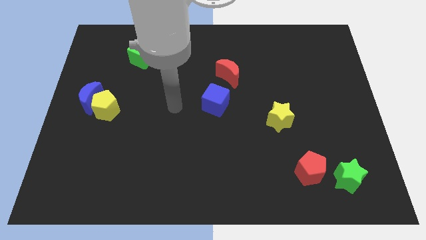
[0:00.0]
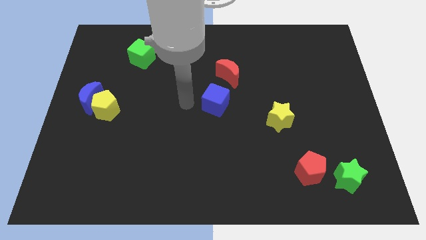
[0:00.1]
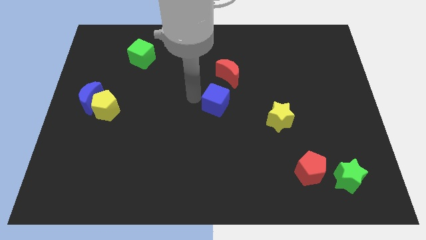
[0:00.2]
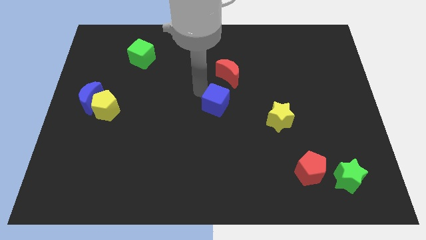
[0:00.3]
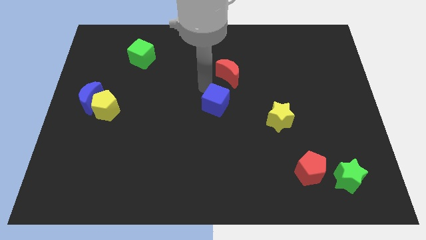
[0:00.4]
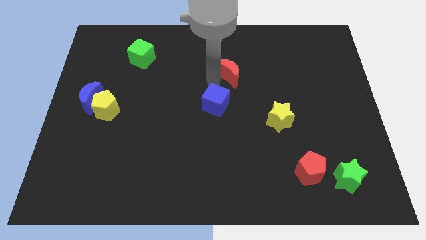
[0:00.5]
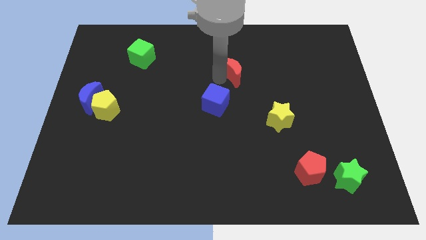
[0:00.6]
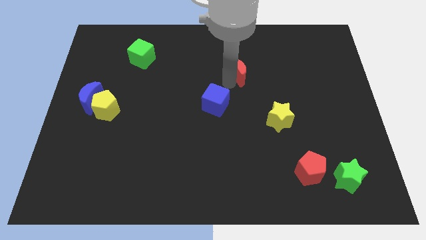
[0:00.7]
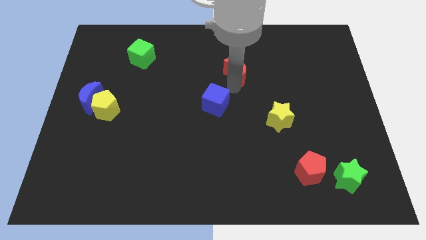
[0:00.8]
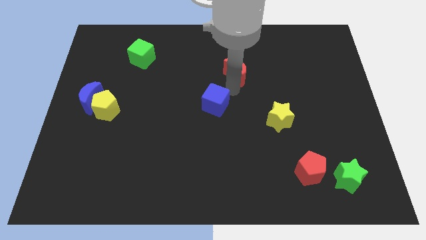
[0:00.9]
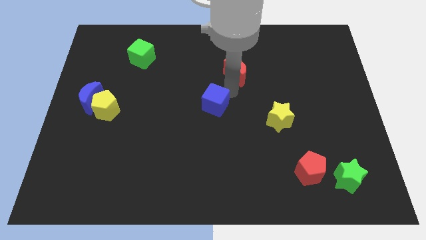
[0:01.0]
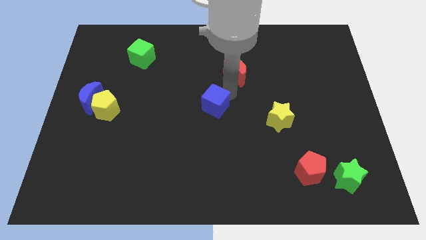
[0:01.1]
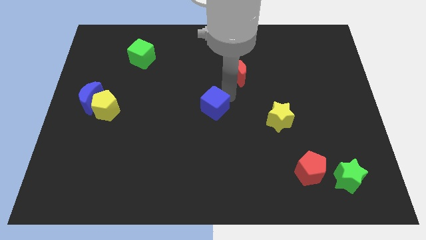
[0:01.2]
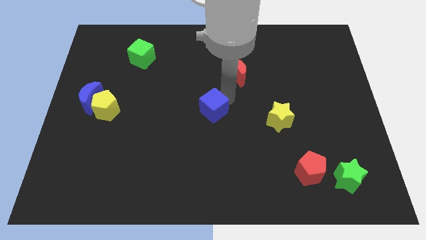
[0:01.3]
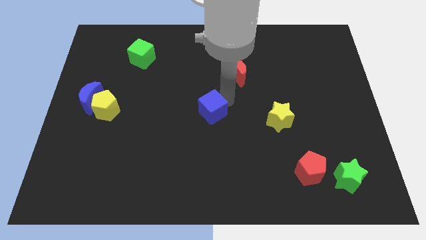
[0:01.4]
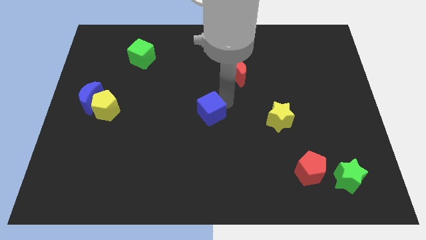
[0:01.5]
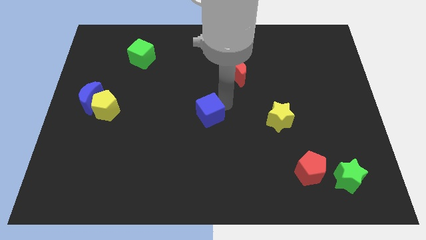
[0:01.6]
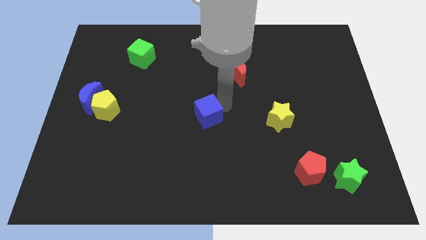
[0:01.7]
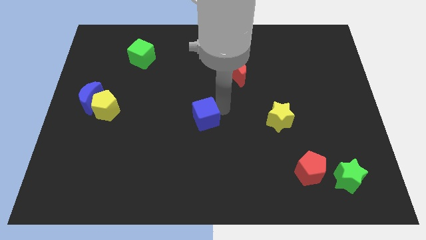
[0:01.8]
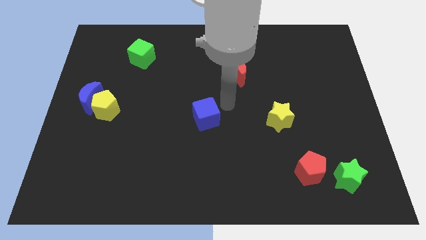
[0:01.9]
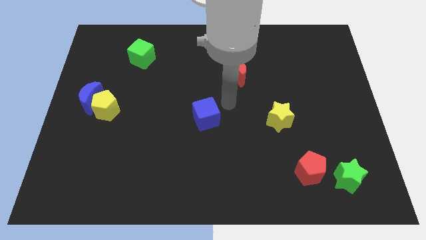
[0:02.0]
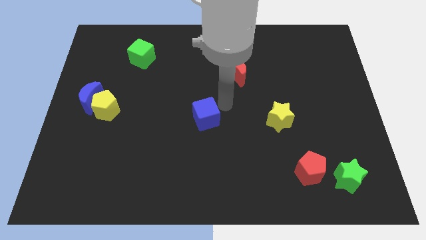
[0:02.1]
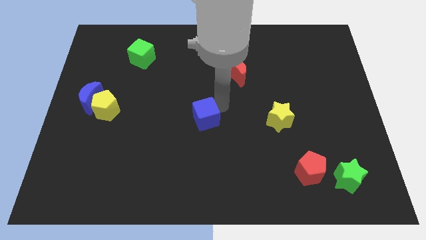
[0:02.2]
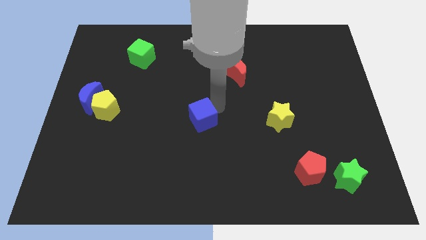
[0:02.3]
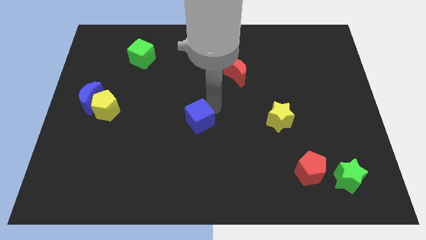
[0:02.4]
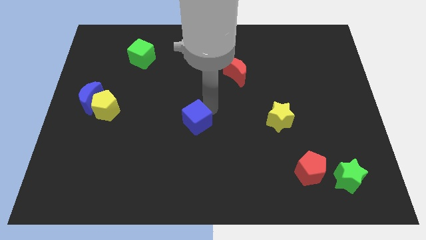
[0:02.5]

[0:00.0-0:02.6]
slide the blue cube a little down and left

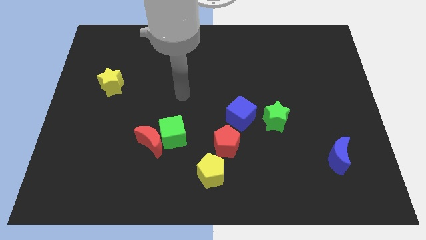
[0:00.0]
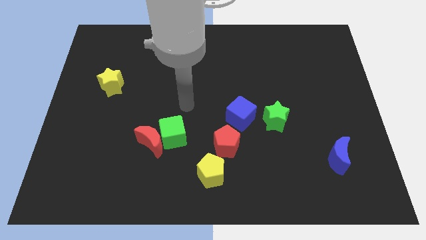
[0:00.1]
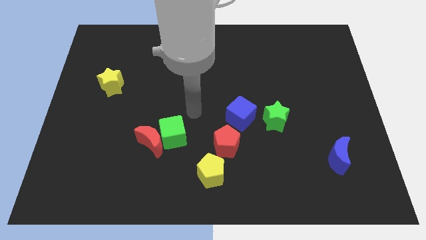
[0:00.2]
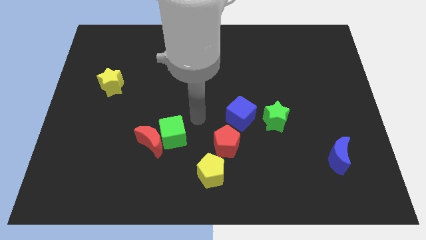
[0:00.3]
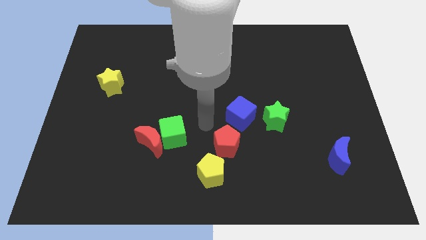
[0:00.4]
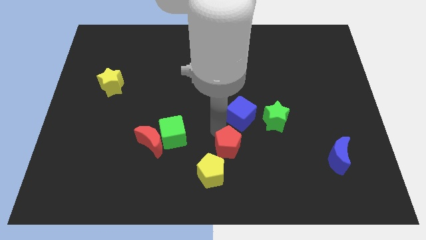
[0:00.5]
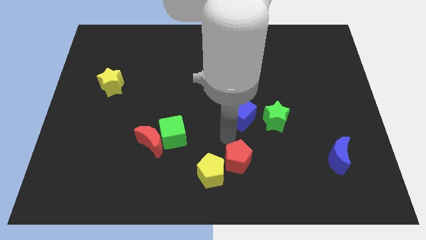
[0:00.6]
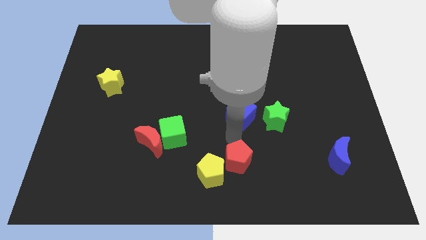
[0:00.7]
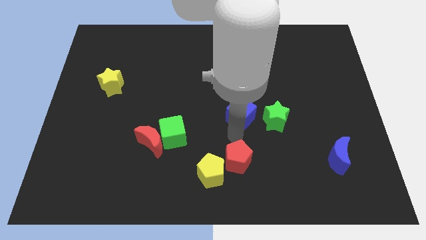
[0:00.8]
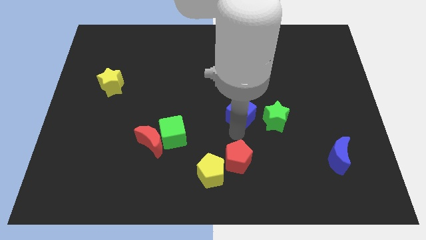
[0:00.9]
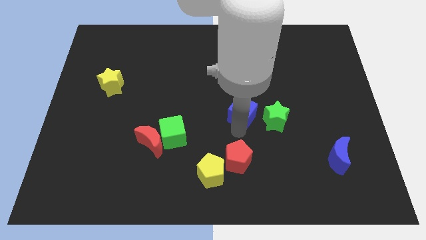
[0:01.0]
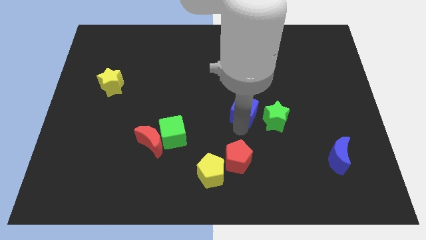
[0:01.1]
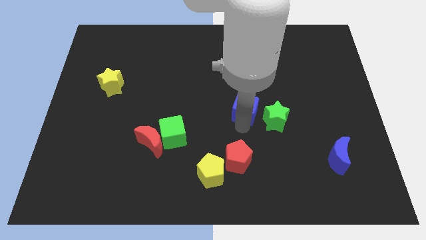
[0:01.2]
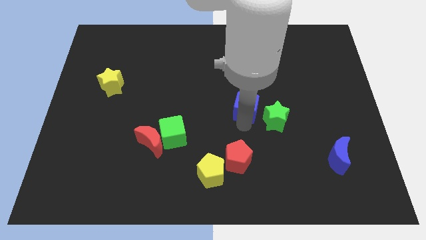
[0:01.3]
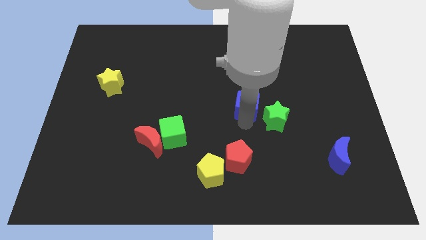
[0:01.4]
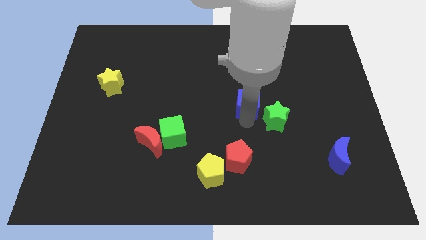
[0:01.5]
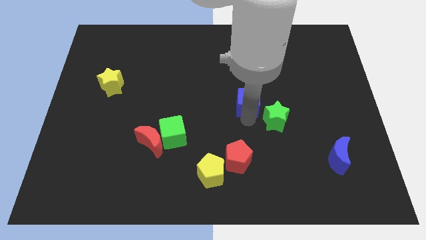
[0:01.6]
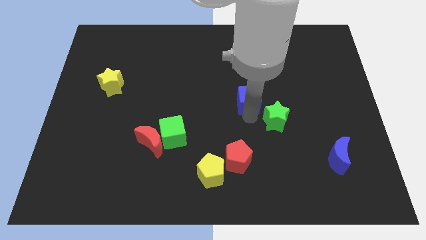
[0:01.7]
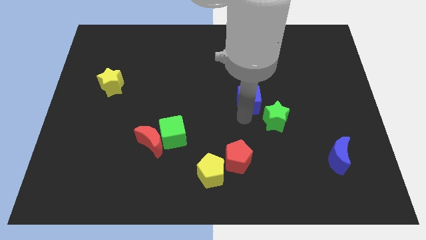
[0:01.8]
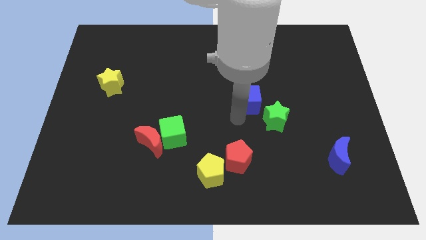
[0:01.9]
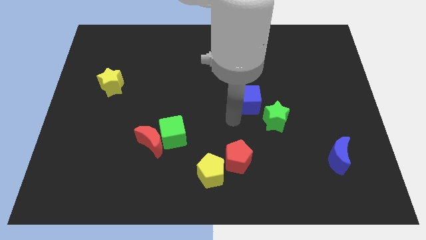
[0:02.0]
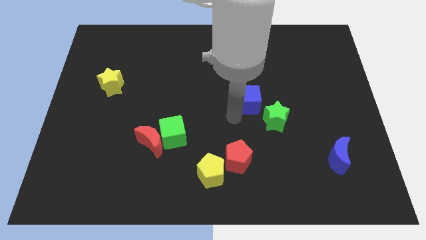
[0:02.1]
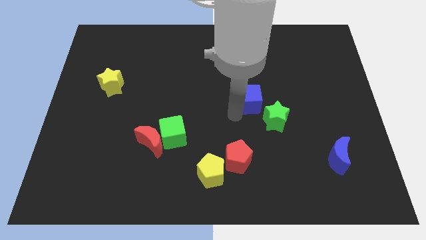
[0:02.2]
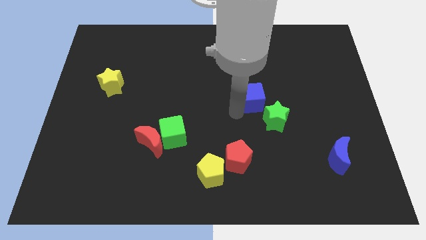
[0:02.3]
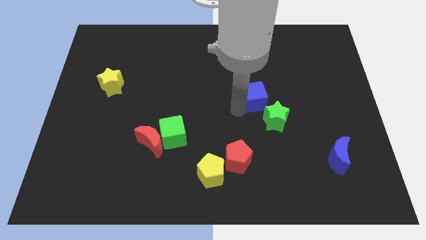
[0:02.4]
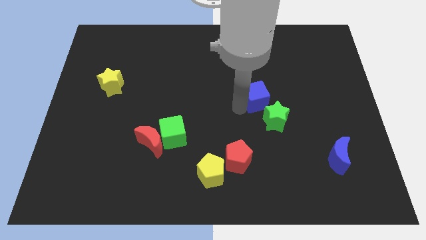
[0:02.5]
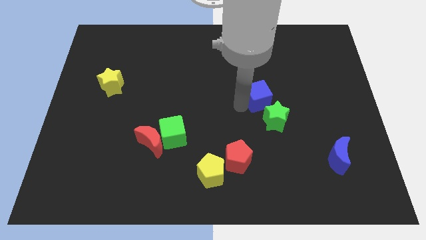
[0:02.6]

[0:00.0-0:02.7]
slide the blue cube diagonally up and right slightly

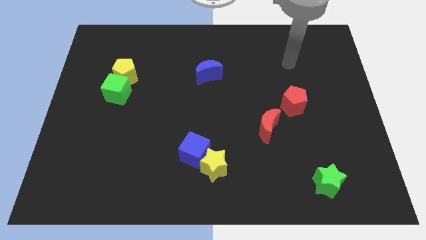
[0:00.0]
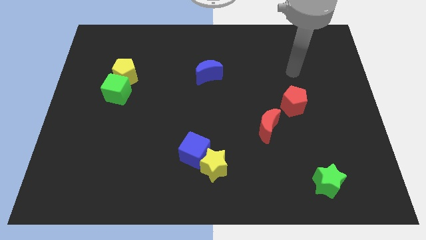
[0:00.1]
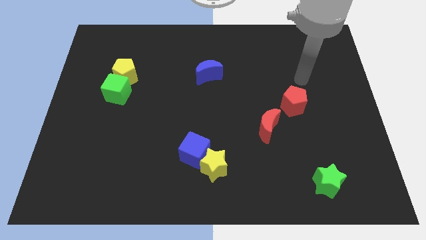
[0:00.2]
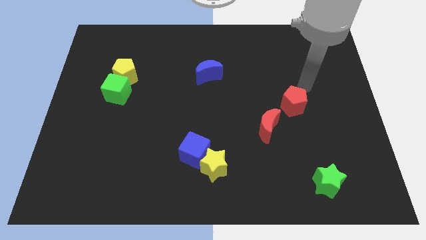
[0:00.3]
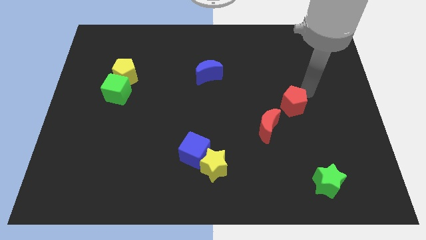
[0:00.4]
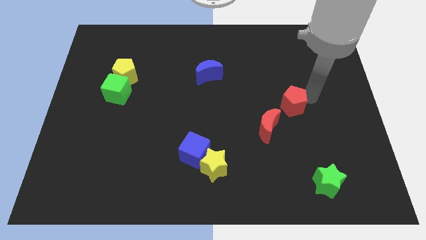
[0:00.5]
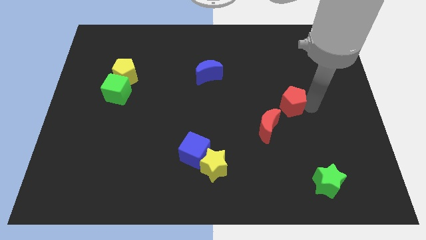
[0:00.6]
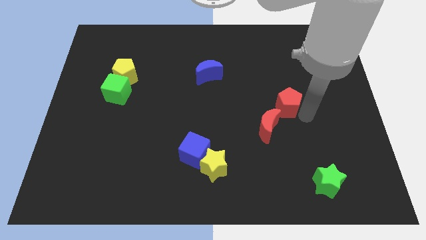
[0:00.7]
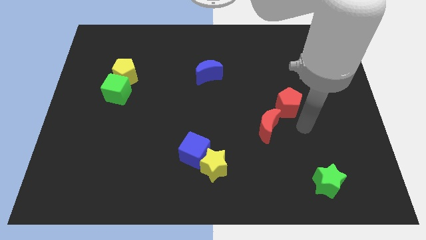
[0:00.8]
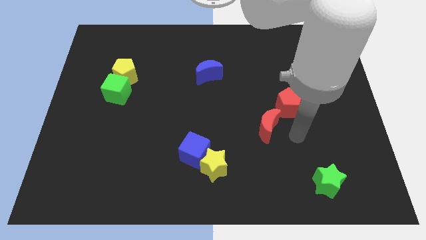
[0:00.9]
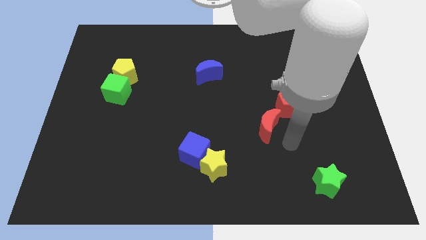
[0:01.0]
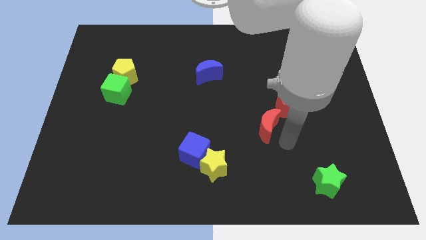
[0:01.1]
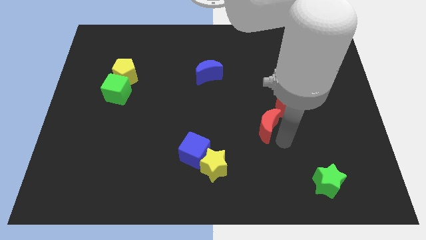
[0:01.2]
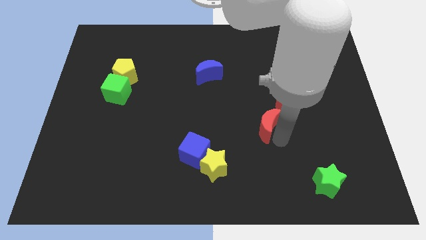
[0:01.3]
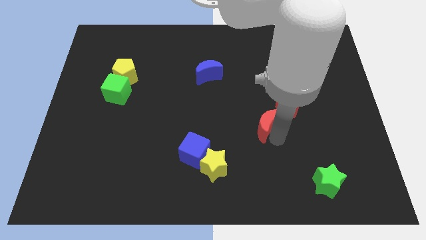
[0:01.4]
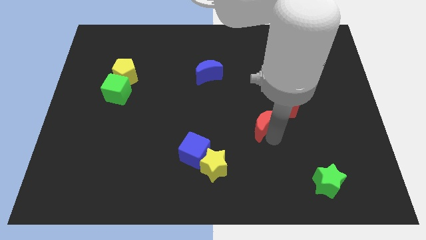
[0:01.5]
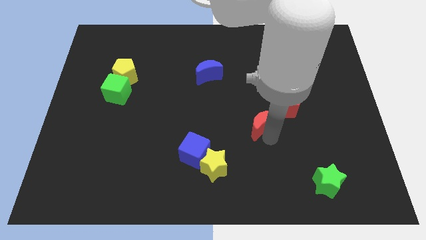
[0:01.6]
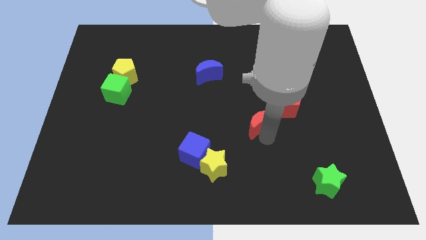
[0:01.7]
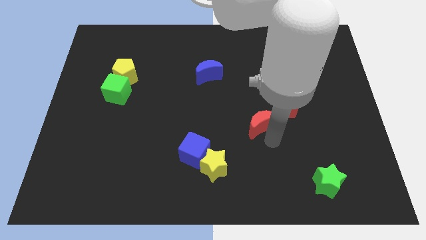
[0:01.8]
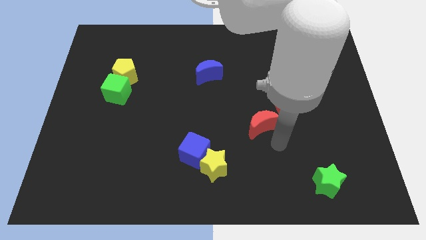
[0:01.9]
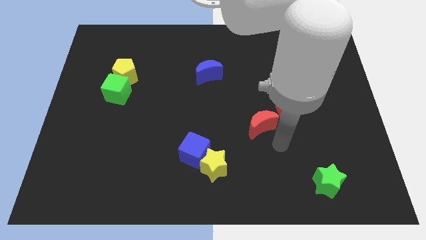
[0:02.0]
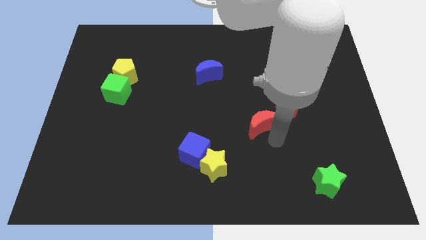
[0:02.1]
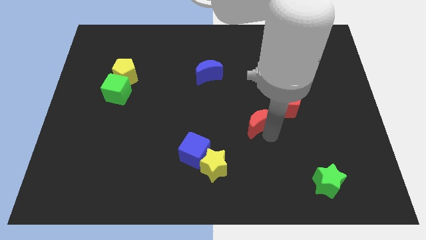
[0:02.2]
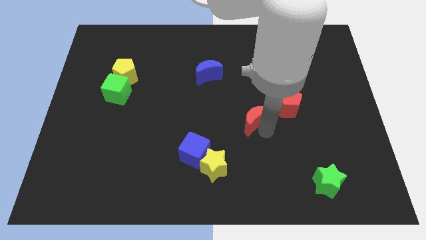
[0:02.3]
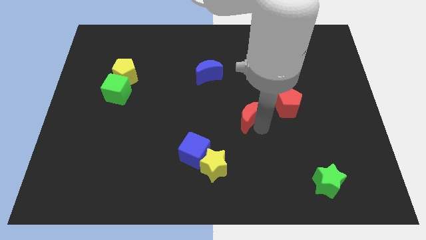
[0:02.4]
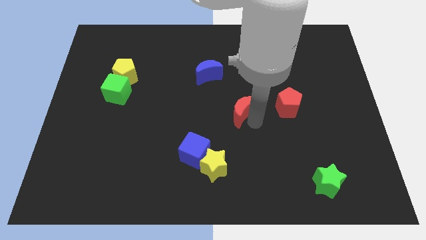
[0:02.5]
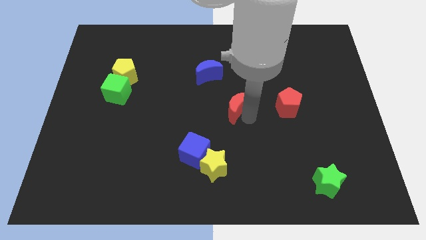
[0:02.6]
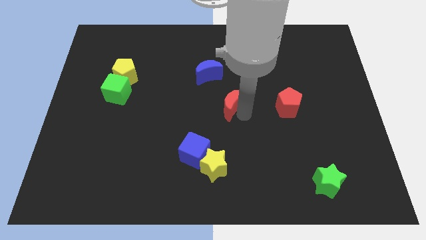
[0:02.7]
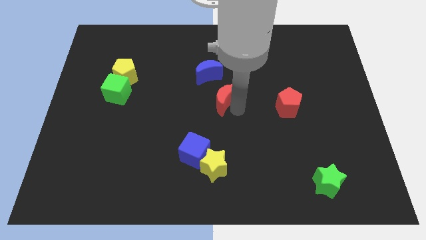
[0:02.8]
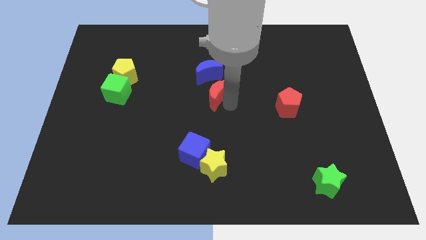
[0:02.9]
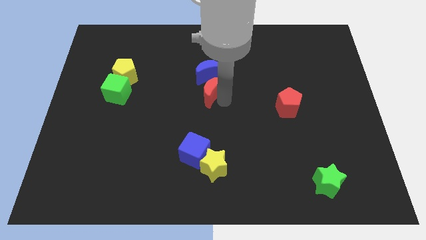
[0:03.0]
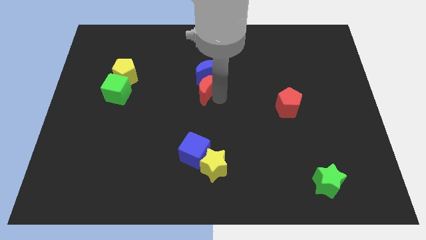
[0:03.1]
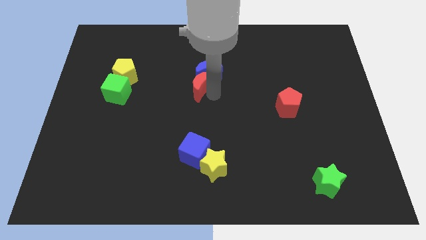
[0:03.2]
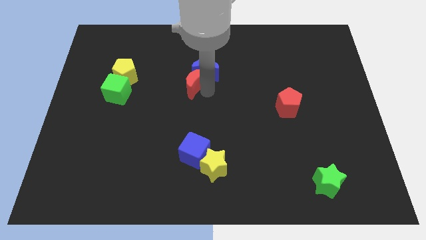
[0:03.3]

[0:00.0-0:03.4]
slide the red moon up and then to the left
